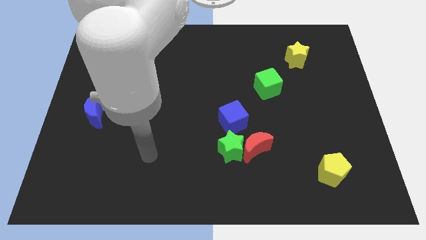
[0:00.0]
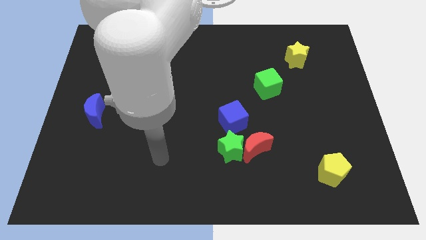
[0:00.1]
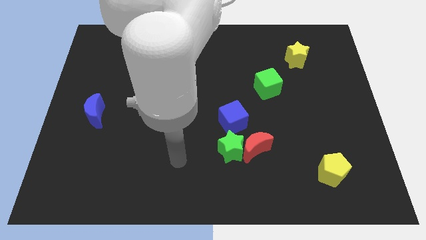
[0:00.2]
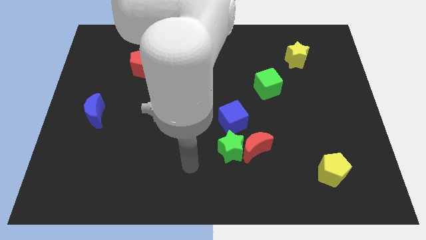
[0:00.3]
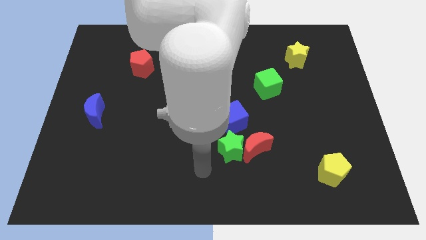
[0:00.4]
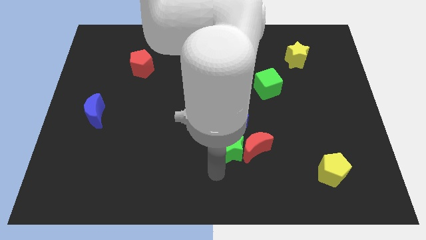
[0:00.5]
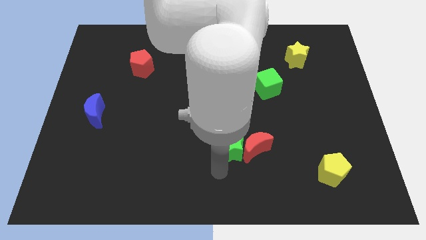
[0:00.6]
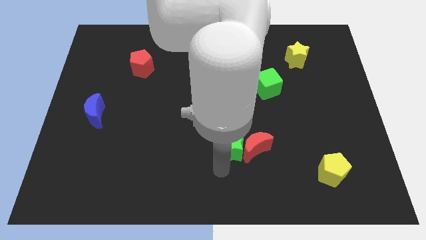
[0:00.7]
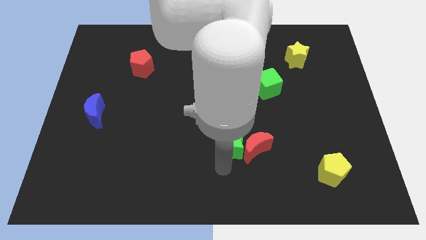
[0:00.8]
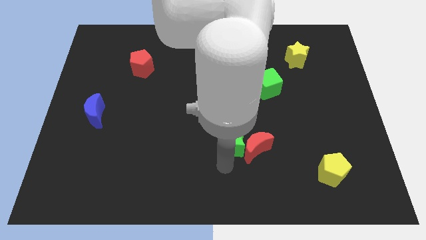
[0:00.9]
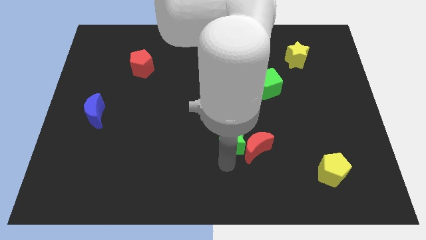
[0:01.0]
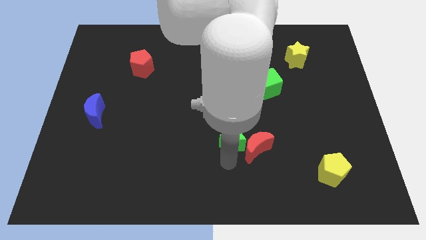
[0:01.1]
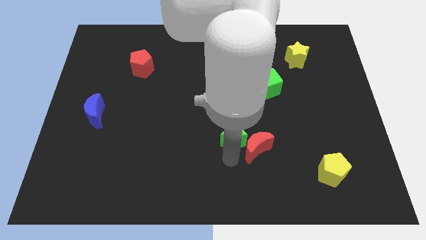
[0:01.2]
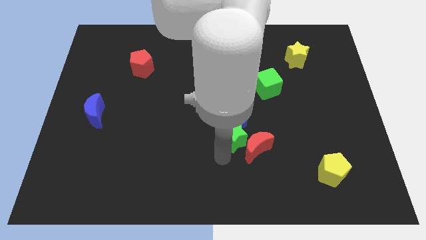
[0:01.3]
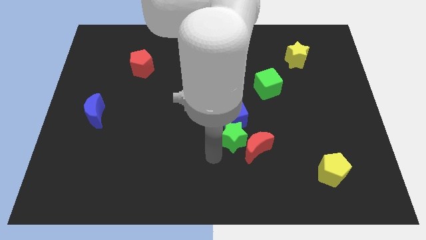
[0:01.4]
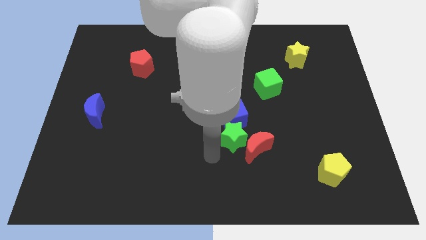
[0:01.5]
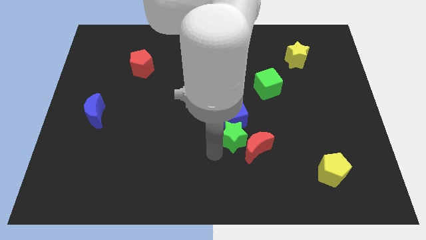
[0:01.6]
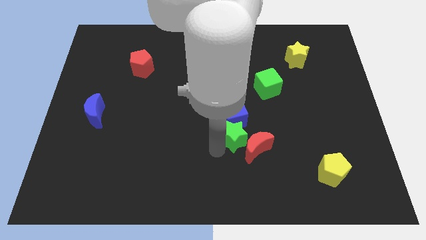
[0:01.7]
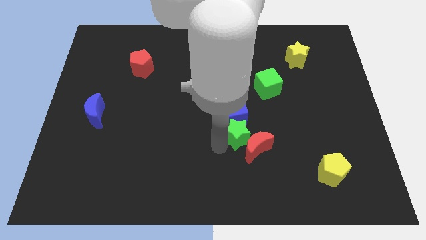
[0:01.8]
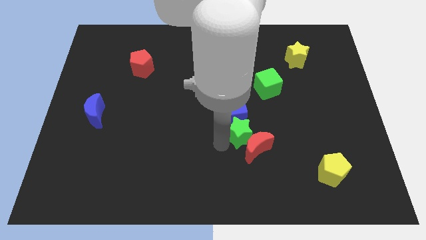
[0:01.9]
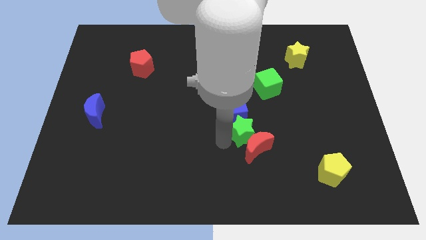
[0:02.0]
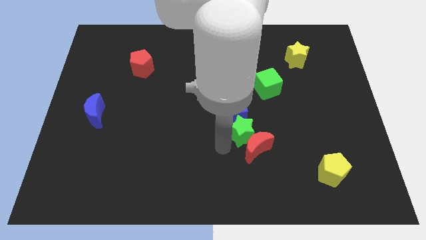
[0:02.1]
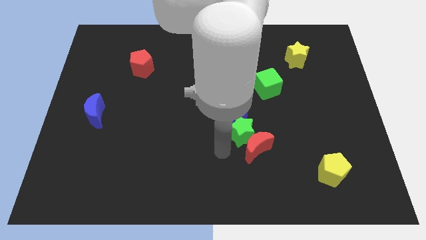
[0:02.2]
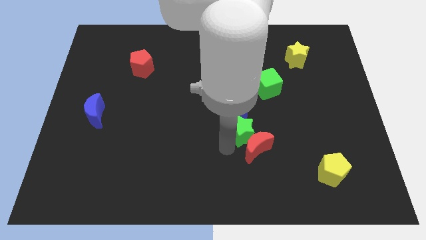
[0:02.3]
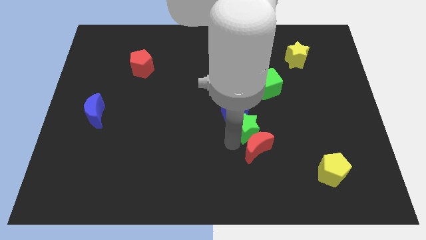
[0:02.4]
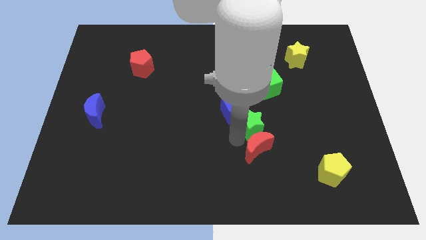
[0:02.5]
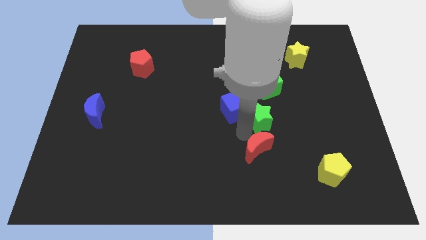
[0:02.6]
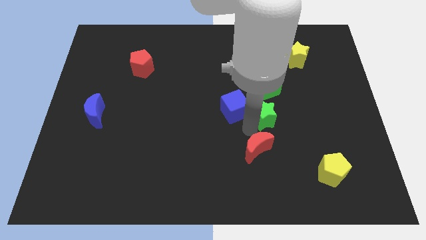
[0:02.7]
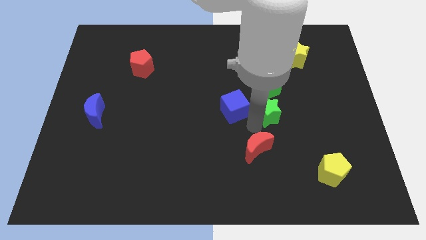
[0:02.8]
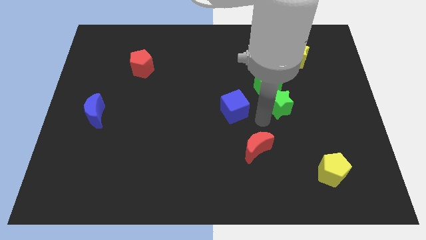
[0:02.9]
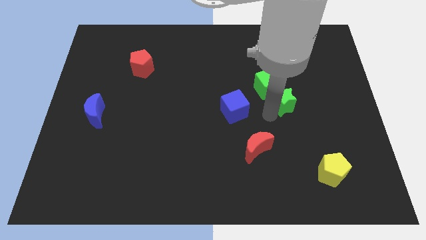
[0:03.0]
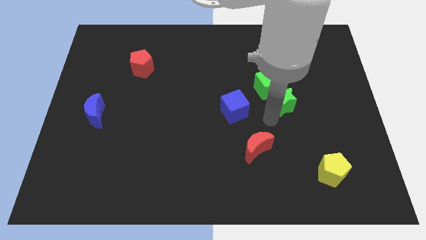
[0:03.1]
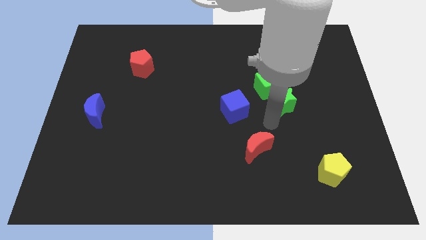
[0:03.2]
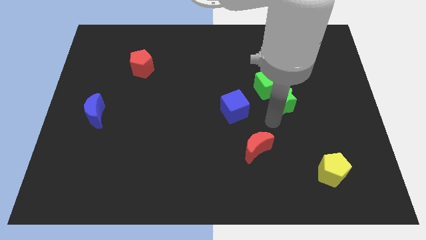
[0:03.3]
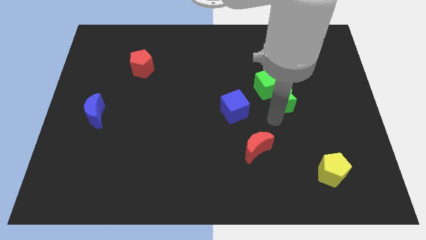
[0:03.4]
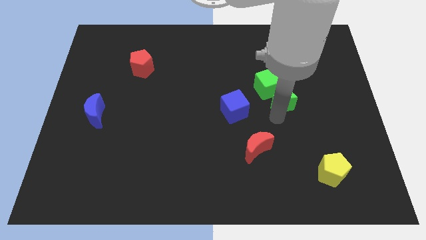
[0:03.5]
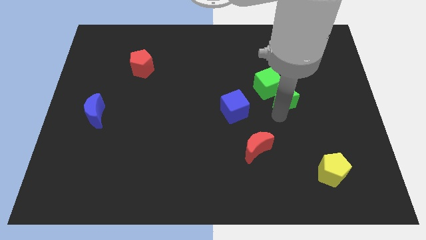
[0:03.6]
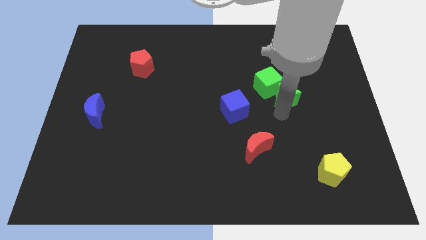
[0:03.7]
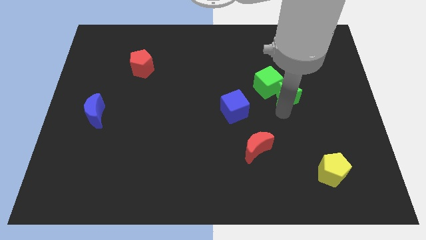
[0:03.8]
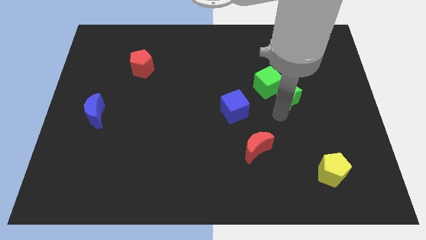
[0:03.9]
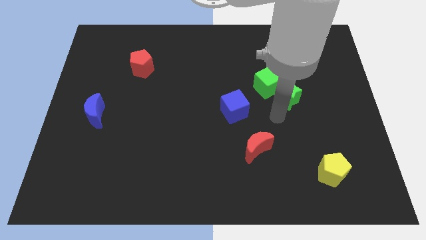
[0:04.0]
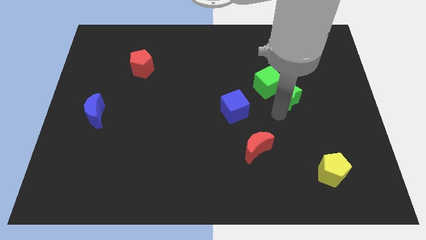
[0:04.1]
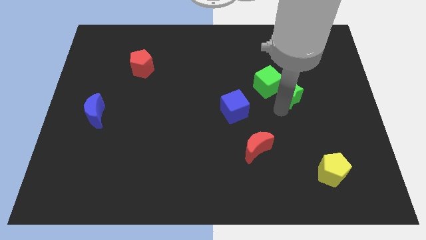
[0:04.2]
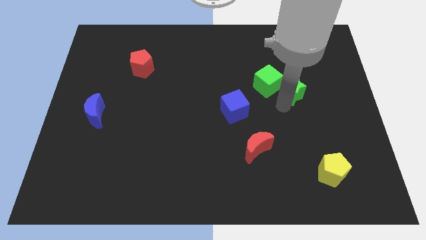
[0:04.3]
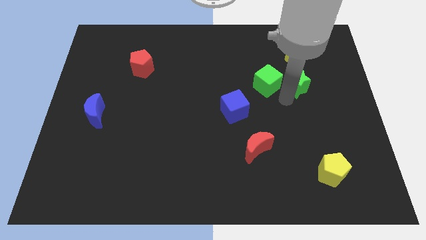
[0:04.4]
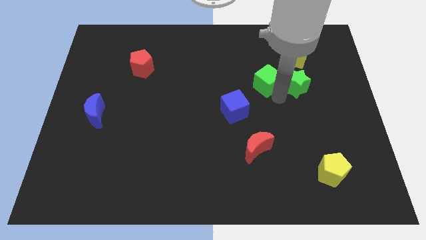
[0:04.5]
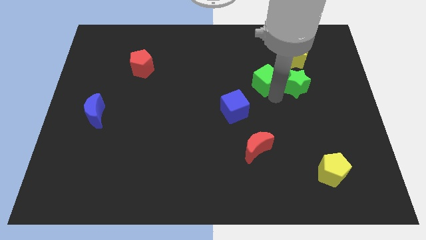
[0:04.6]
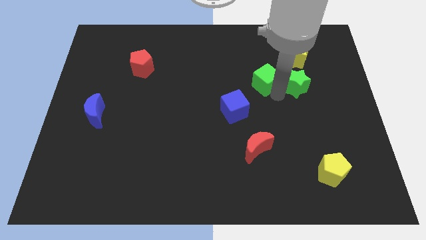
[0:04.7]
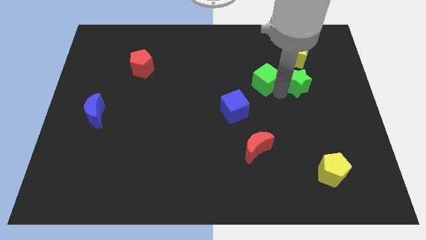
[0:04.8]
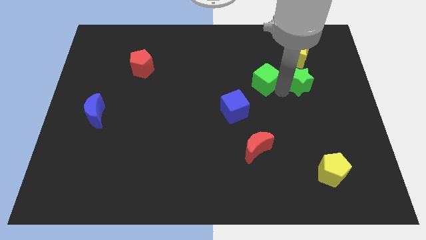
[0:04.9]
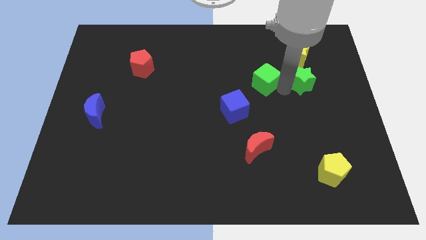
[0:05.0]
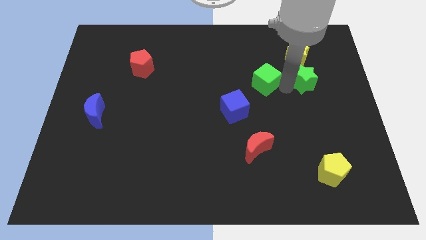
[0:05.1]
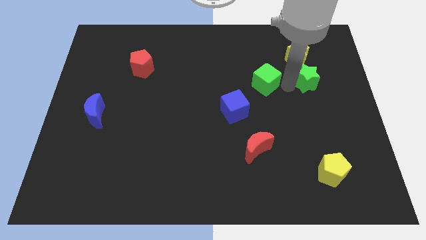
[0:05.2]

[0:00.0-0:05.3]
move the green star diagonally down and to the right of the yellow star

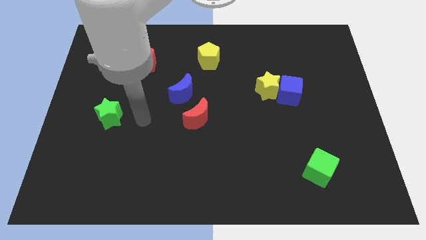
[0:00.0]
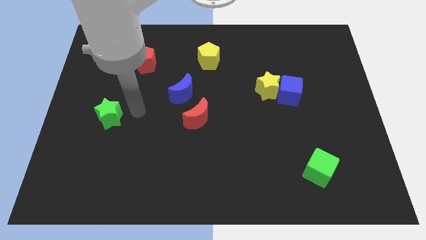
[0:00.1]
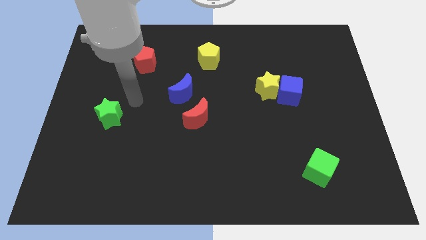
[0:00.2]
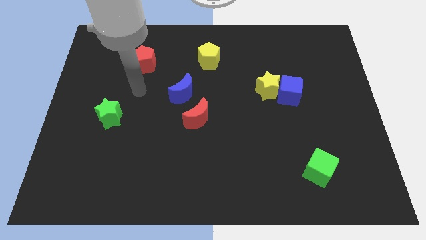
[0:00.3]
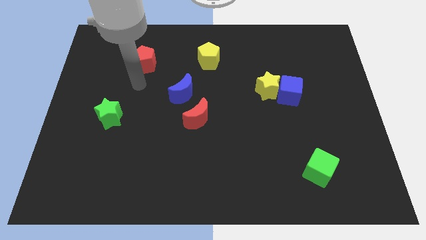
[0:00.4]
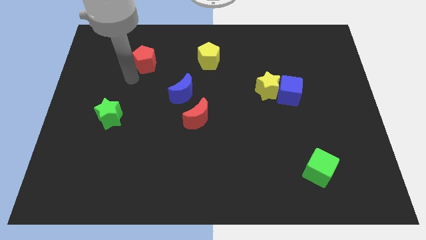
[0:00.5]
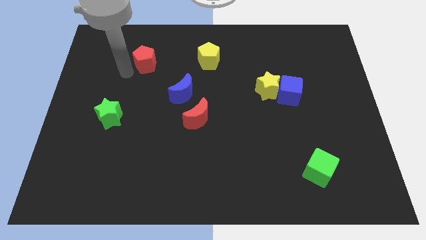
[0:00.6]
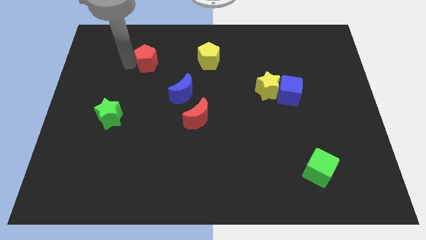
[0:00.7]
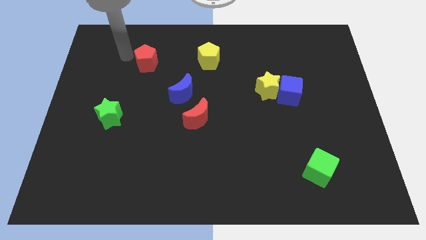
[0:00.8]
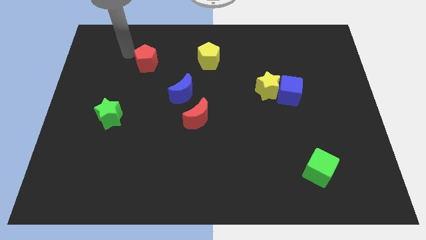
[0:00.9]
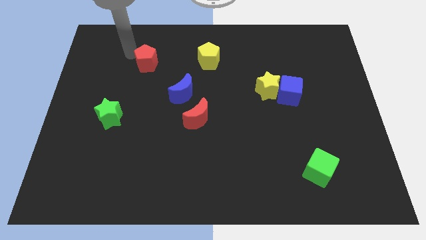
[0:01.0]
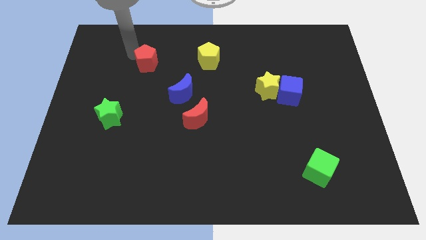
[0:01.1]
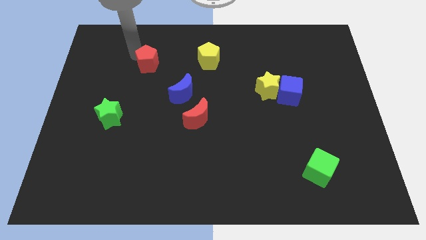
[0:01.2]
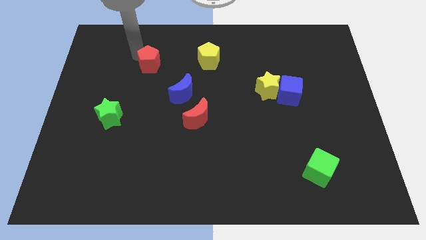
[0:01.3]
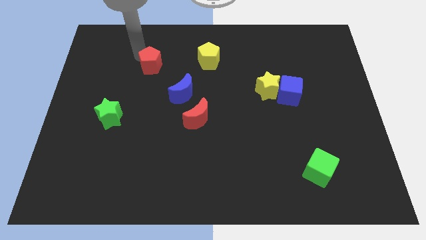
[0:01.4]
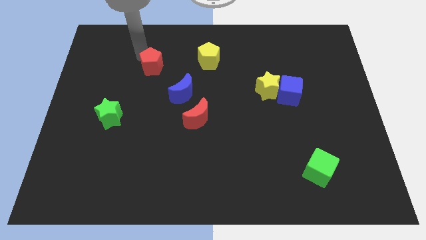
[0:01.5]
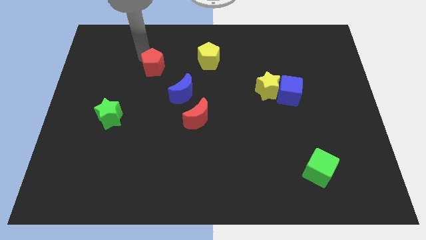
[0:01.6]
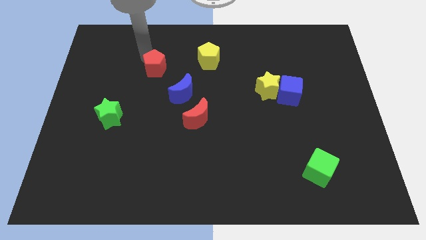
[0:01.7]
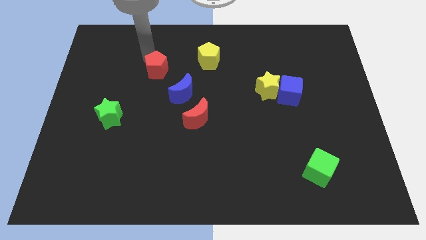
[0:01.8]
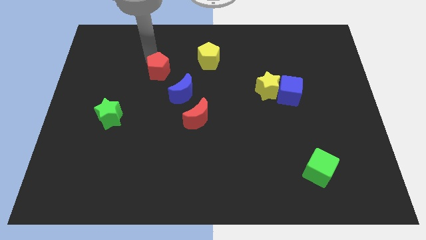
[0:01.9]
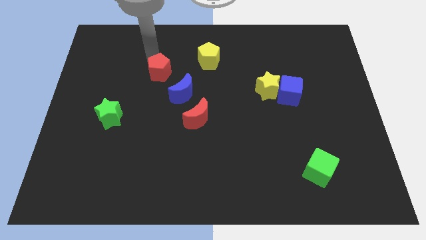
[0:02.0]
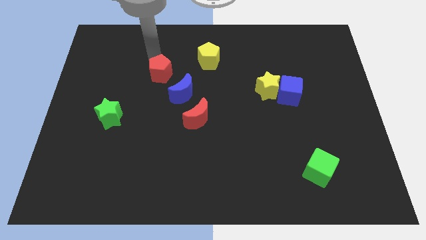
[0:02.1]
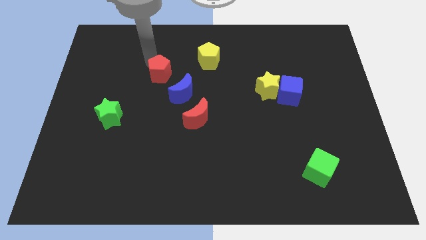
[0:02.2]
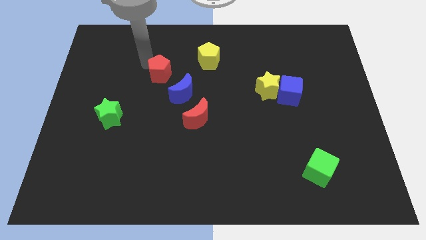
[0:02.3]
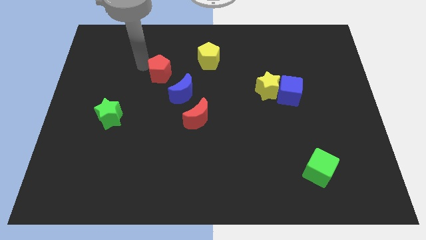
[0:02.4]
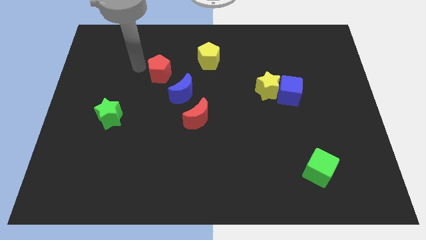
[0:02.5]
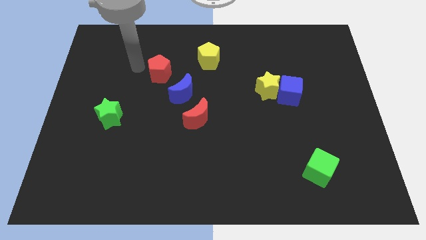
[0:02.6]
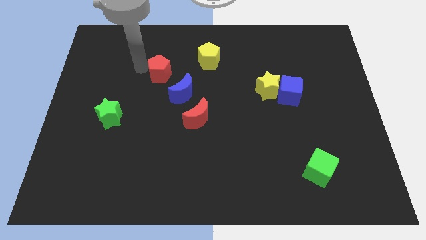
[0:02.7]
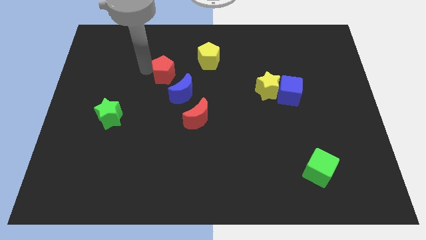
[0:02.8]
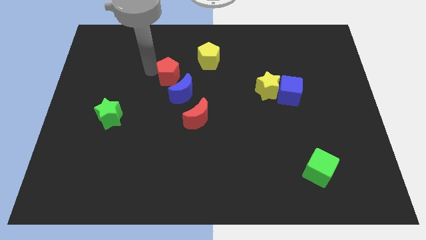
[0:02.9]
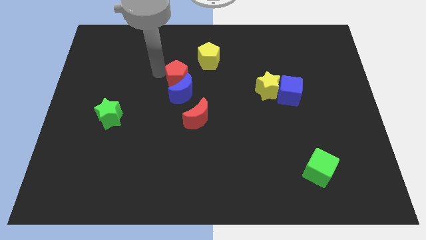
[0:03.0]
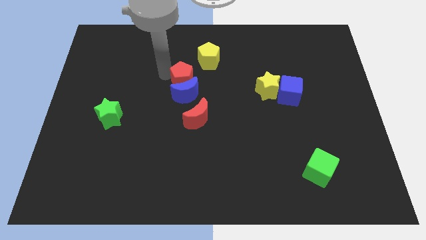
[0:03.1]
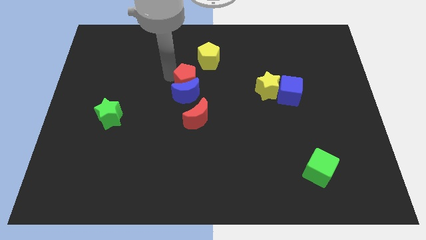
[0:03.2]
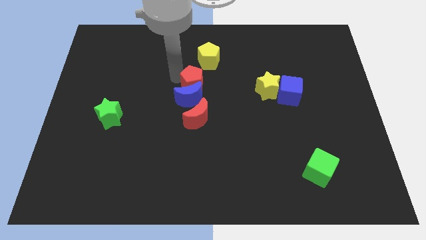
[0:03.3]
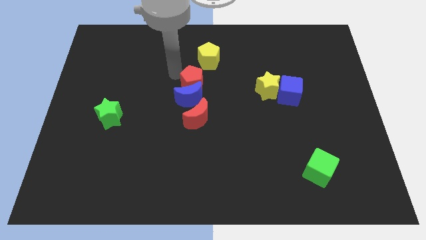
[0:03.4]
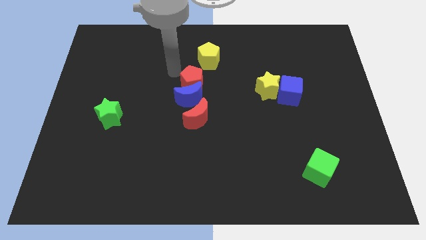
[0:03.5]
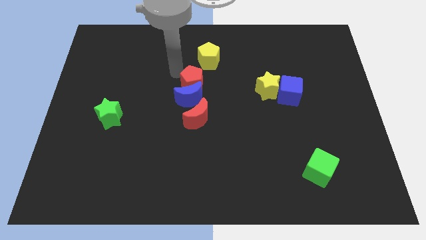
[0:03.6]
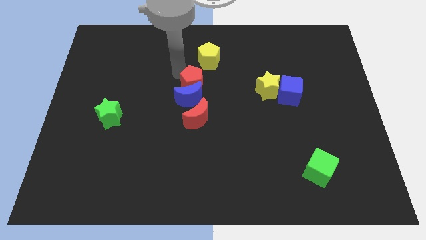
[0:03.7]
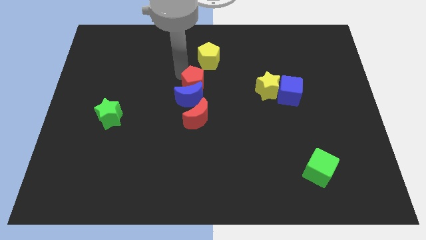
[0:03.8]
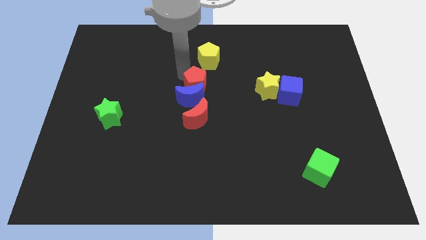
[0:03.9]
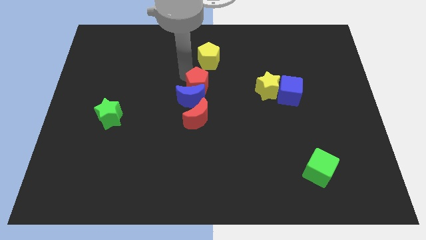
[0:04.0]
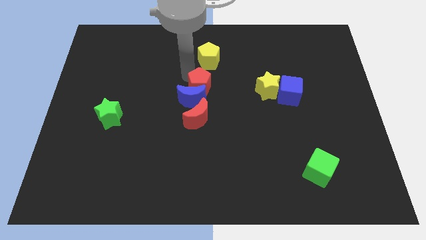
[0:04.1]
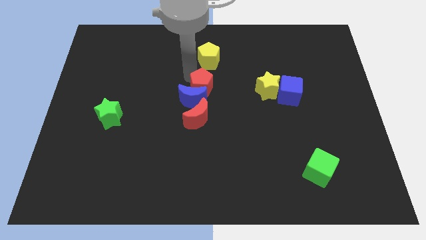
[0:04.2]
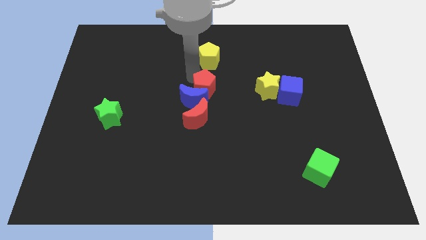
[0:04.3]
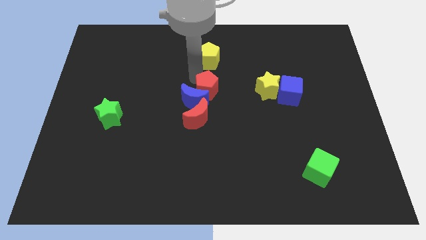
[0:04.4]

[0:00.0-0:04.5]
put the red pentagon diagonally up and to the right of the red moon
